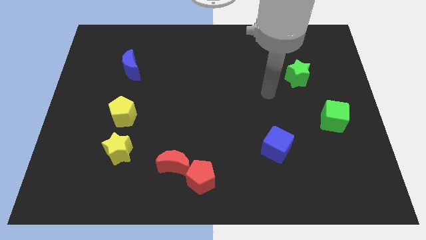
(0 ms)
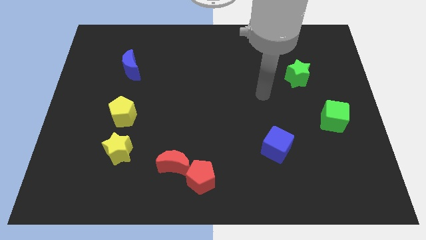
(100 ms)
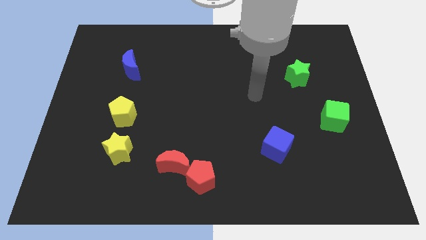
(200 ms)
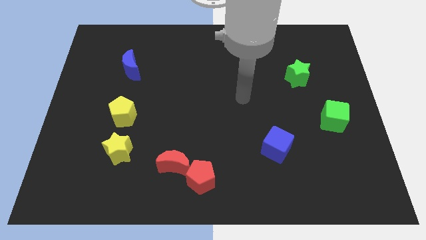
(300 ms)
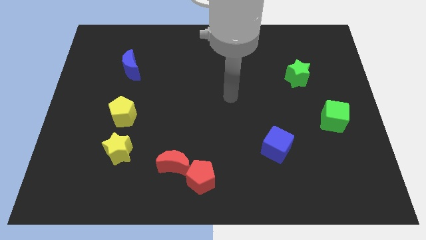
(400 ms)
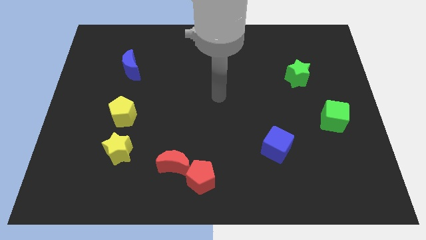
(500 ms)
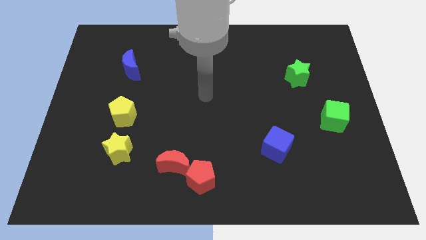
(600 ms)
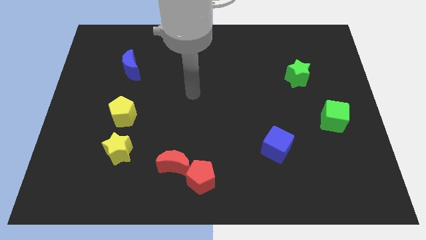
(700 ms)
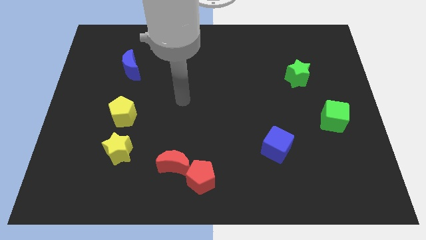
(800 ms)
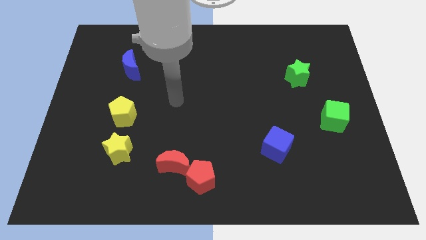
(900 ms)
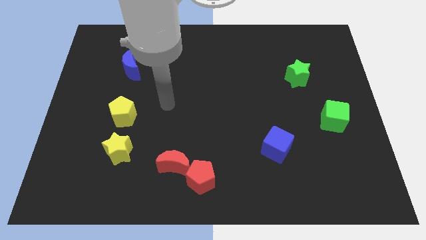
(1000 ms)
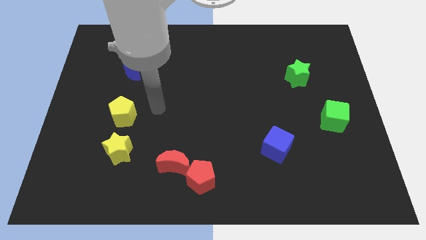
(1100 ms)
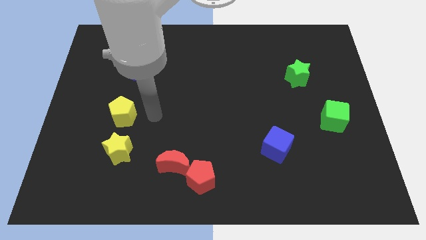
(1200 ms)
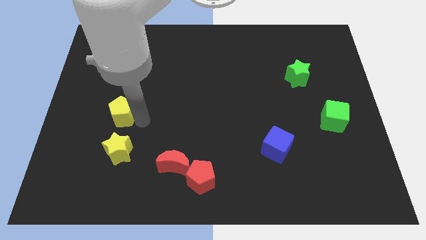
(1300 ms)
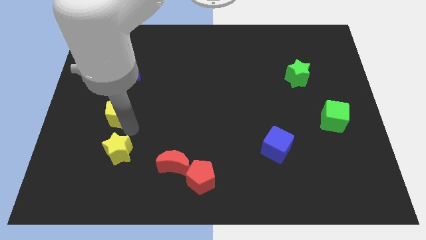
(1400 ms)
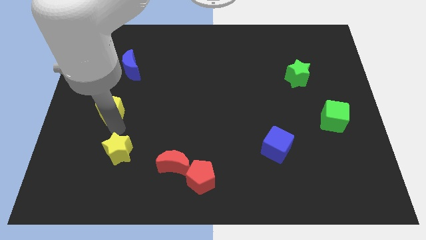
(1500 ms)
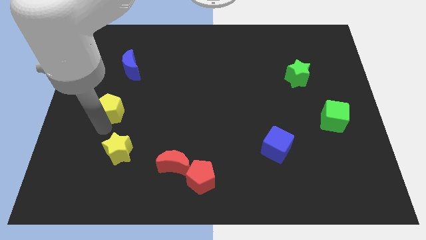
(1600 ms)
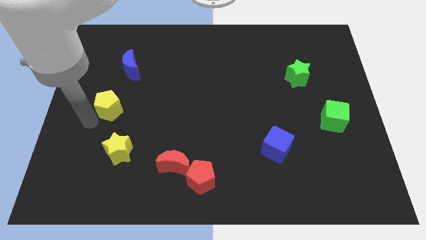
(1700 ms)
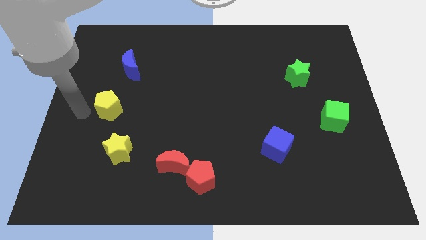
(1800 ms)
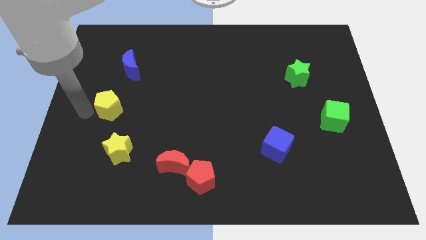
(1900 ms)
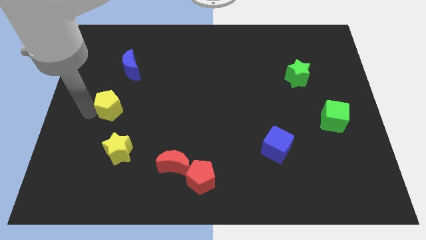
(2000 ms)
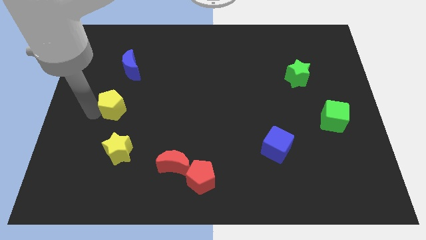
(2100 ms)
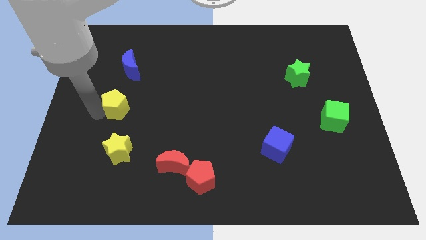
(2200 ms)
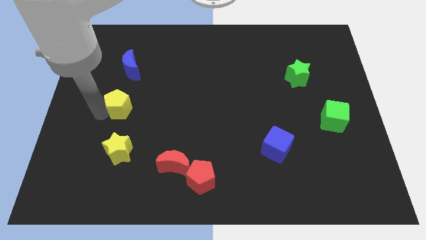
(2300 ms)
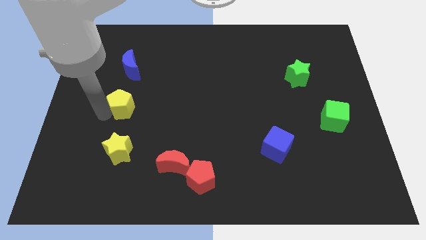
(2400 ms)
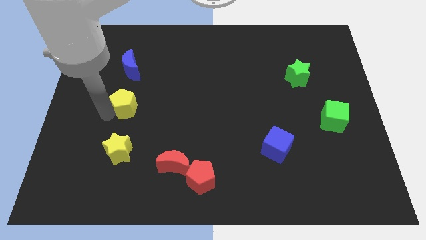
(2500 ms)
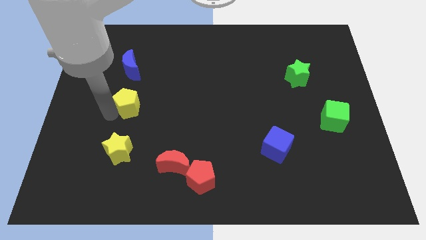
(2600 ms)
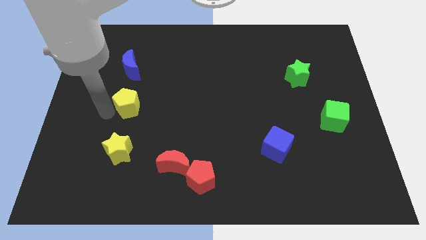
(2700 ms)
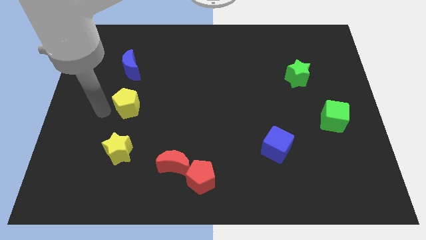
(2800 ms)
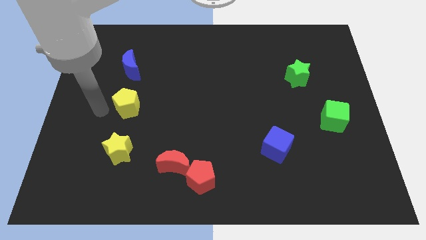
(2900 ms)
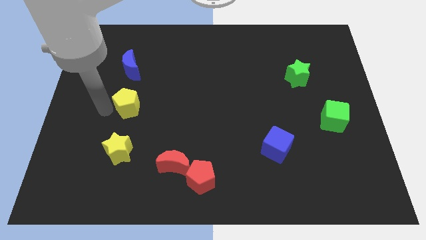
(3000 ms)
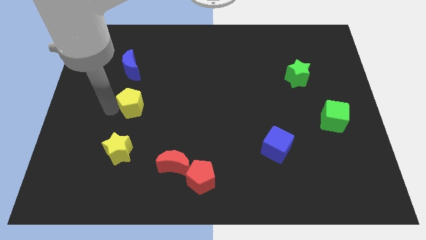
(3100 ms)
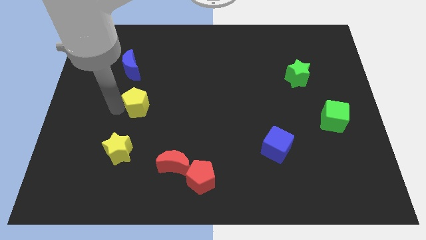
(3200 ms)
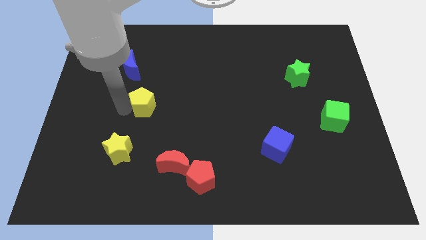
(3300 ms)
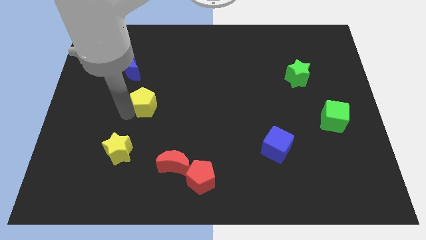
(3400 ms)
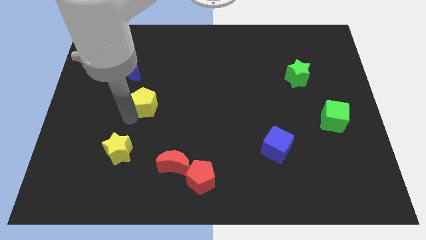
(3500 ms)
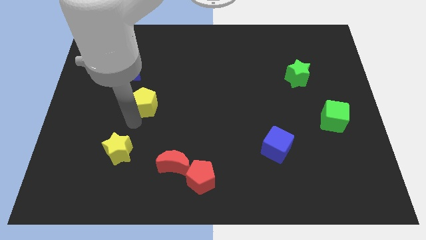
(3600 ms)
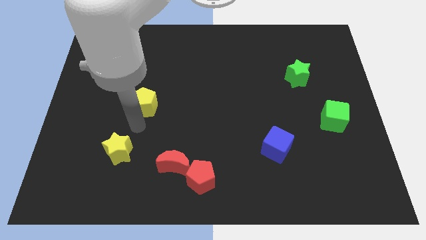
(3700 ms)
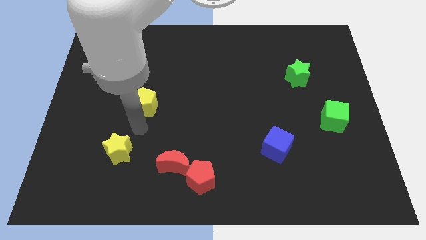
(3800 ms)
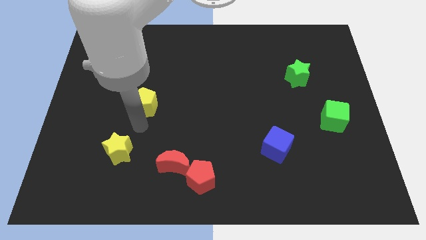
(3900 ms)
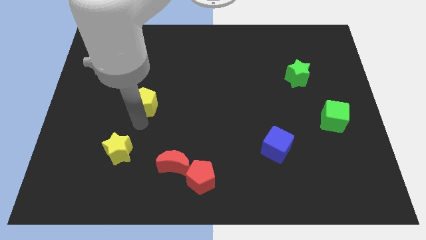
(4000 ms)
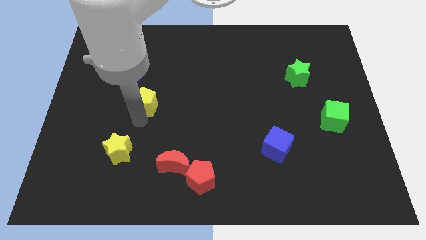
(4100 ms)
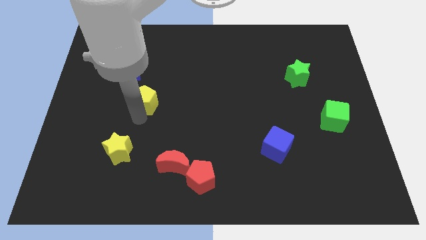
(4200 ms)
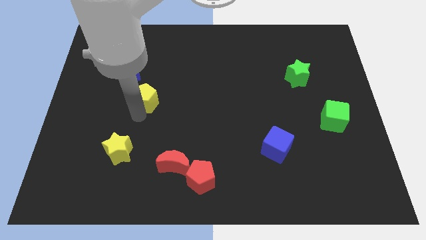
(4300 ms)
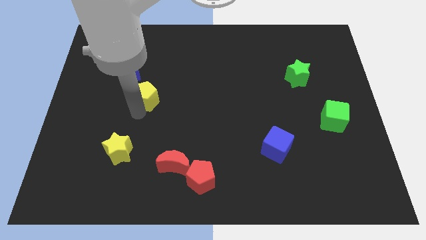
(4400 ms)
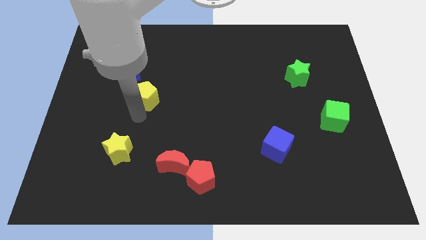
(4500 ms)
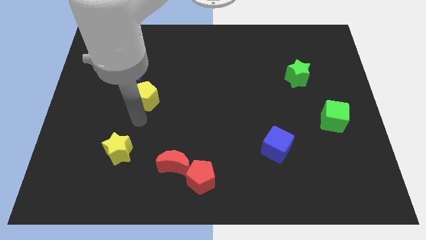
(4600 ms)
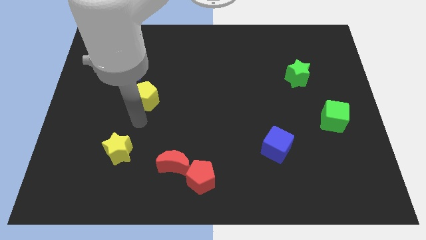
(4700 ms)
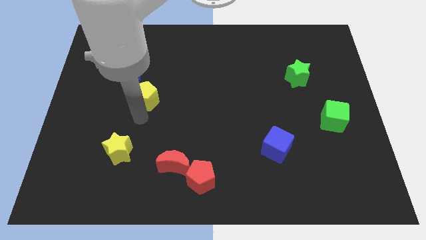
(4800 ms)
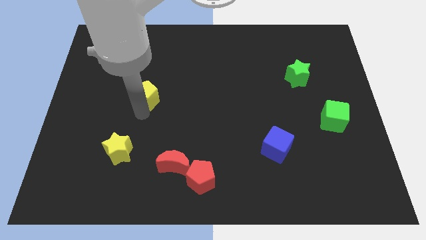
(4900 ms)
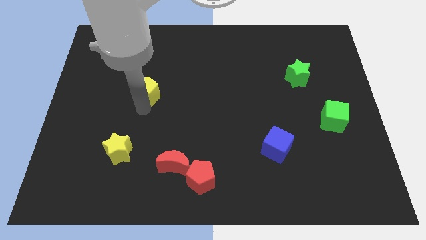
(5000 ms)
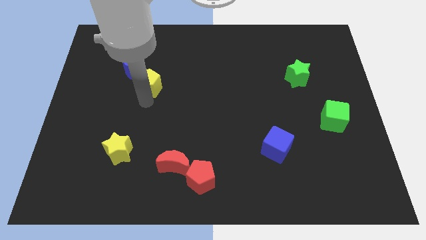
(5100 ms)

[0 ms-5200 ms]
move the yellow pentagon a bit up

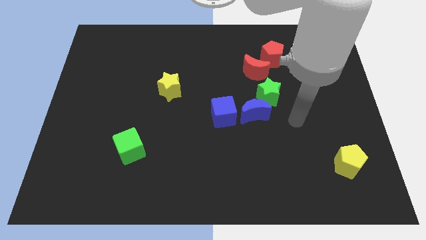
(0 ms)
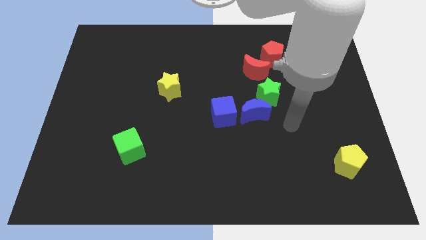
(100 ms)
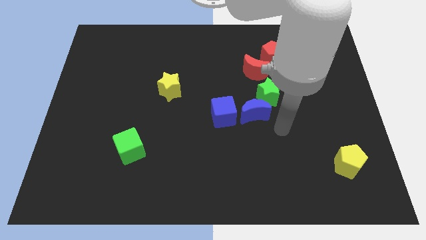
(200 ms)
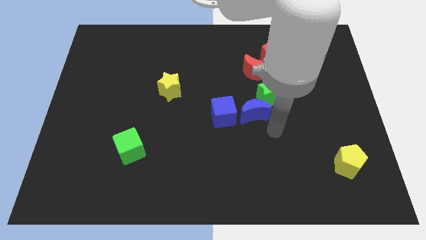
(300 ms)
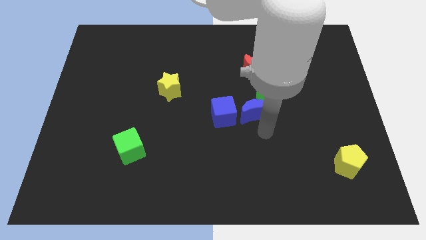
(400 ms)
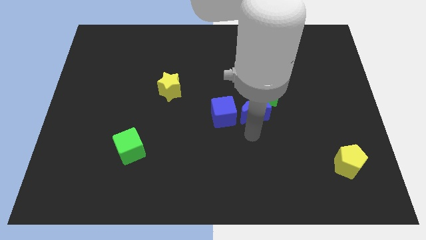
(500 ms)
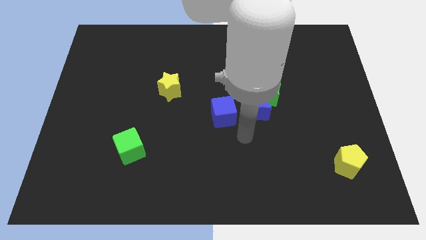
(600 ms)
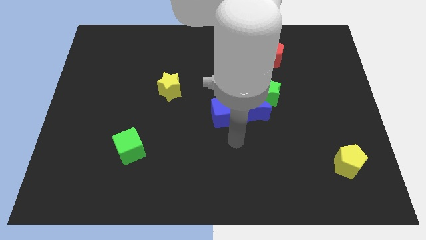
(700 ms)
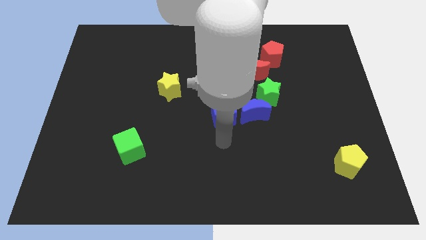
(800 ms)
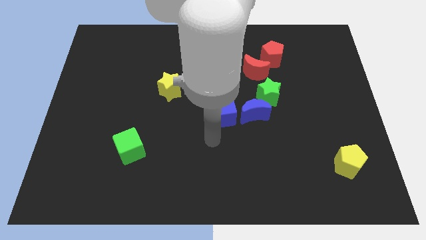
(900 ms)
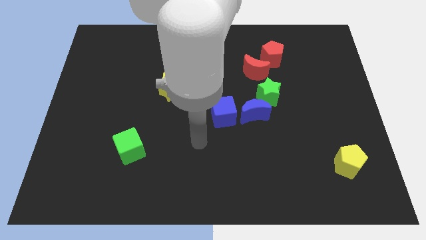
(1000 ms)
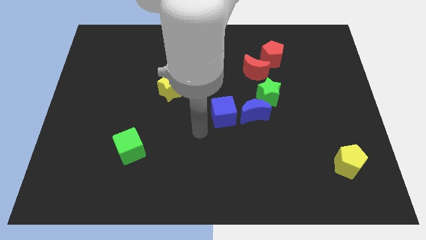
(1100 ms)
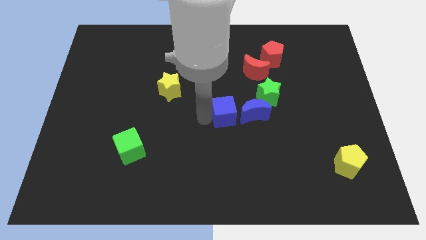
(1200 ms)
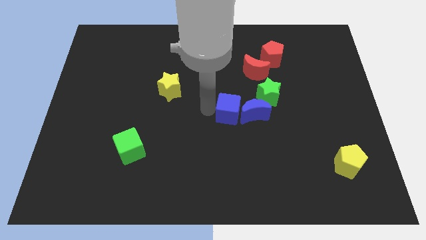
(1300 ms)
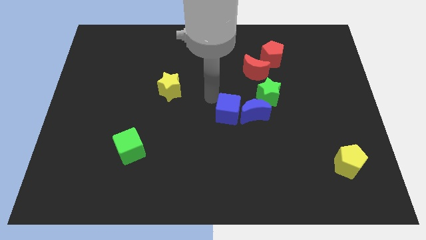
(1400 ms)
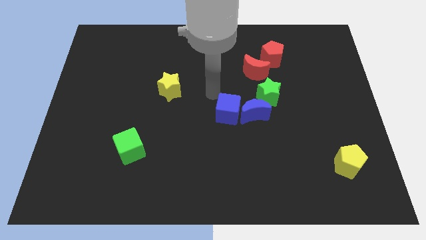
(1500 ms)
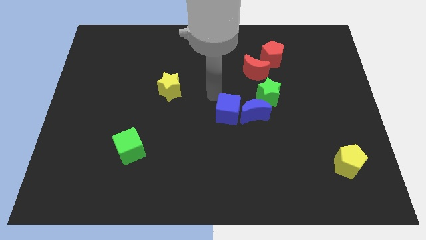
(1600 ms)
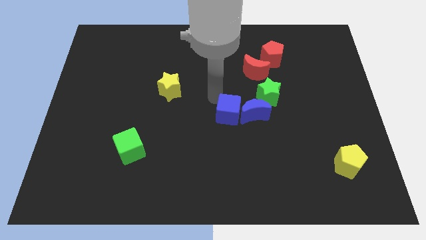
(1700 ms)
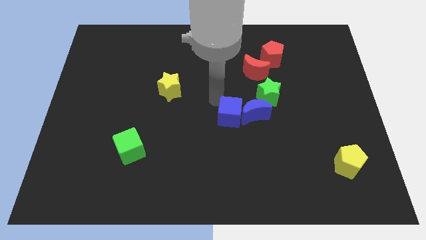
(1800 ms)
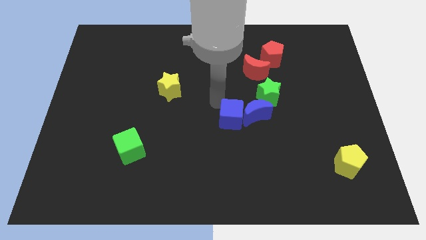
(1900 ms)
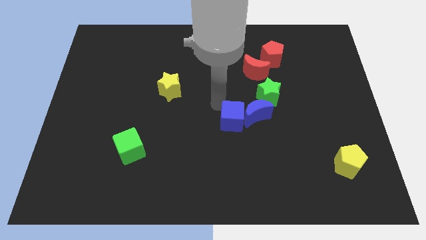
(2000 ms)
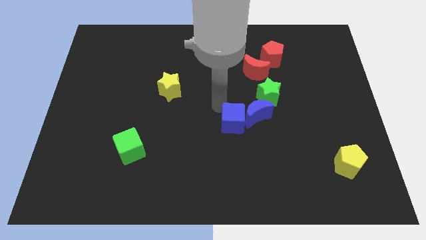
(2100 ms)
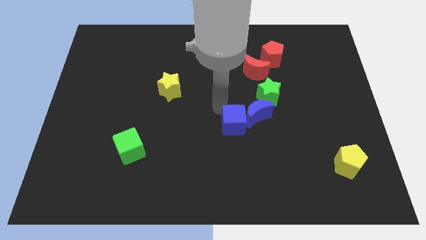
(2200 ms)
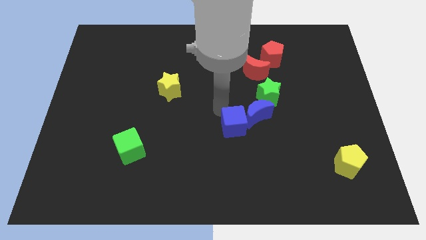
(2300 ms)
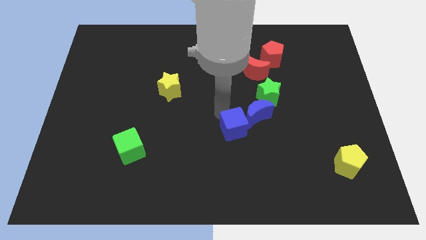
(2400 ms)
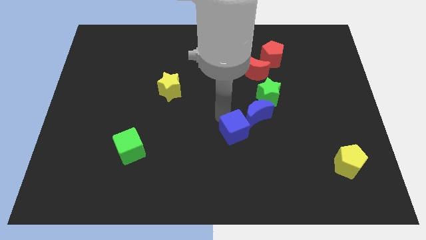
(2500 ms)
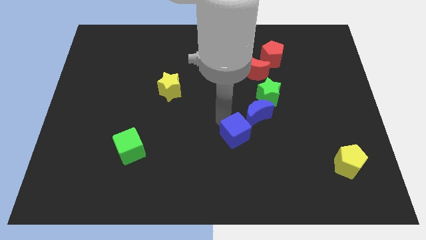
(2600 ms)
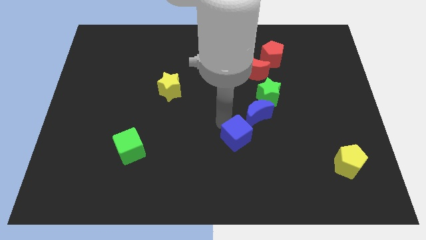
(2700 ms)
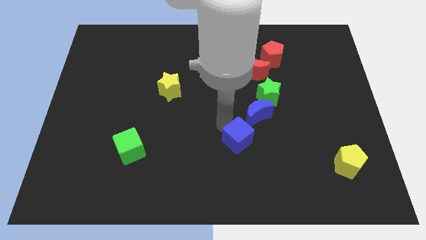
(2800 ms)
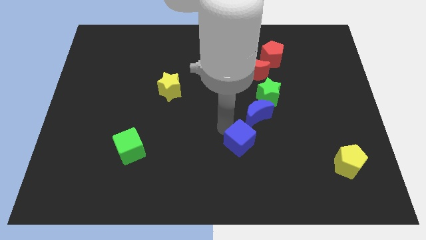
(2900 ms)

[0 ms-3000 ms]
slightly slide the blue cube down and to the right diagonally
